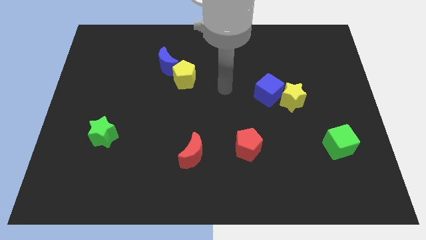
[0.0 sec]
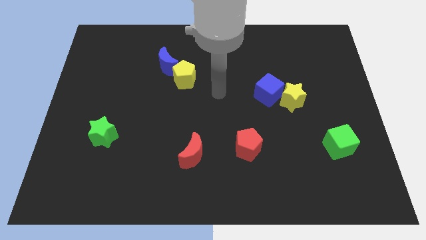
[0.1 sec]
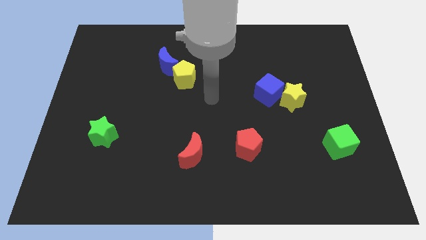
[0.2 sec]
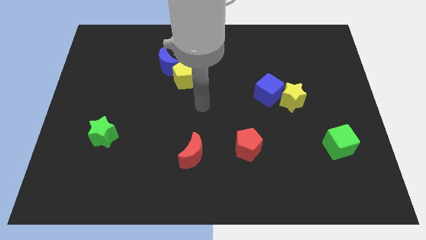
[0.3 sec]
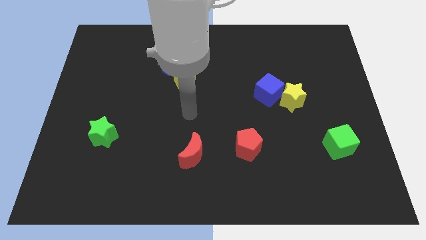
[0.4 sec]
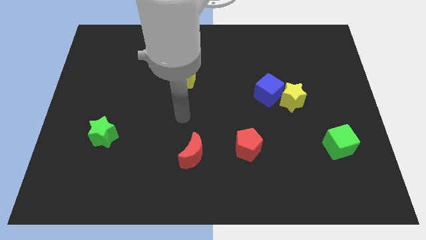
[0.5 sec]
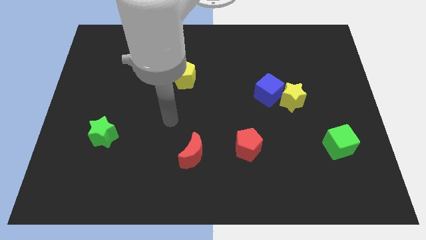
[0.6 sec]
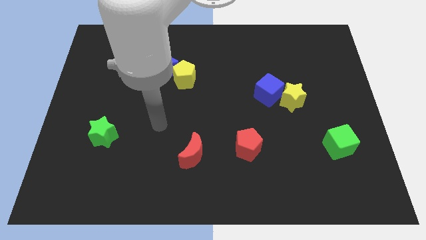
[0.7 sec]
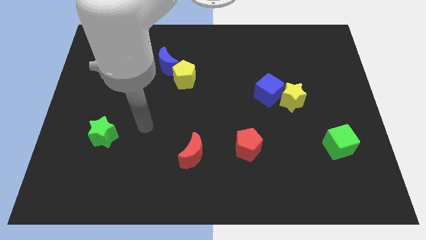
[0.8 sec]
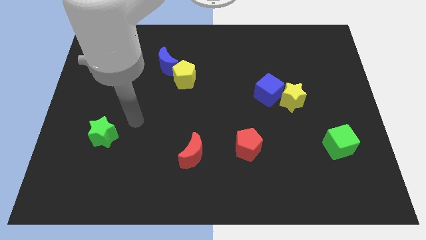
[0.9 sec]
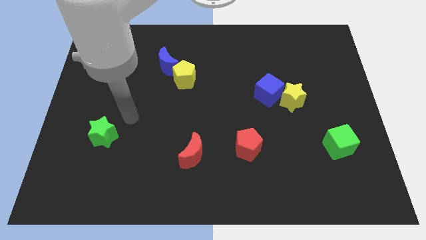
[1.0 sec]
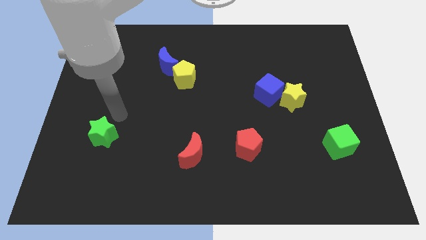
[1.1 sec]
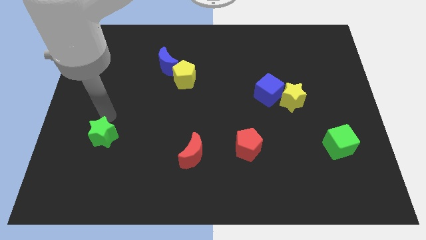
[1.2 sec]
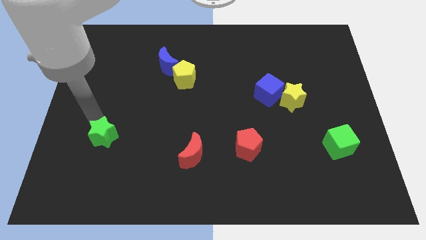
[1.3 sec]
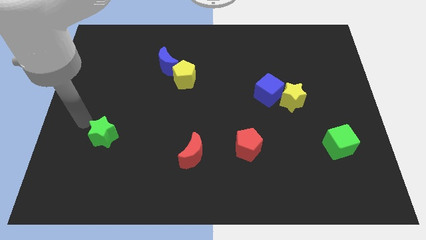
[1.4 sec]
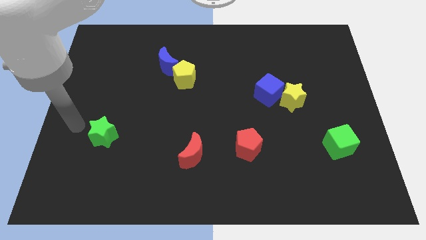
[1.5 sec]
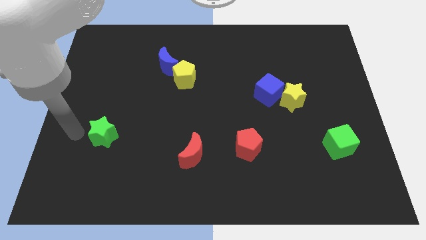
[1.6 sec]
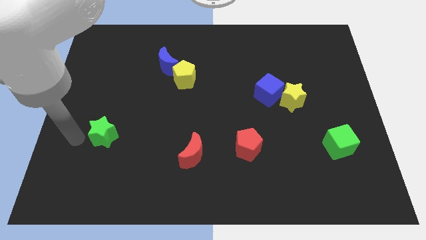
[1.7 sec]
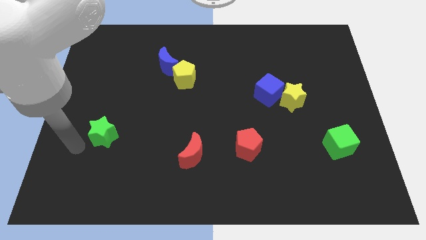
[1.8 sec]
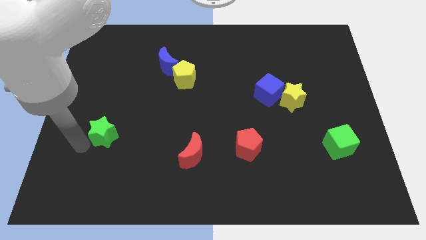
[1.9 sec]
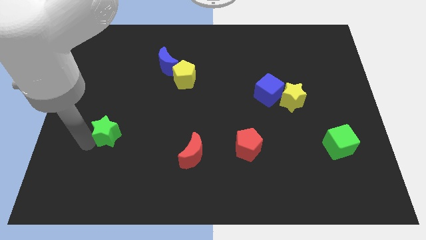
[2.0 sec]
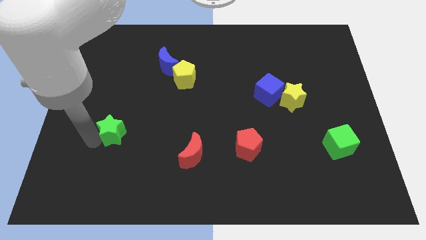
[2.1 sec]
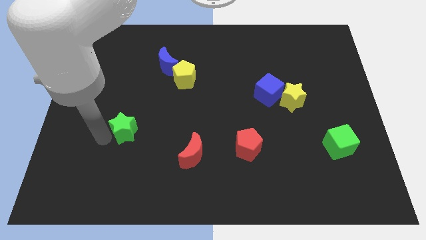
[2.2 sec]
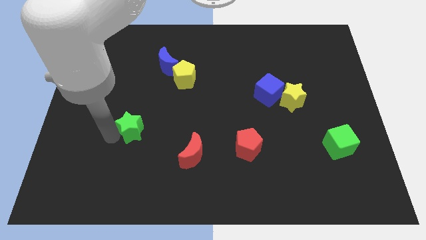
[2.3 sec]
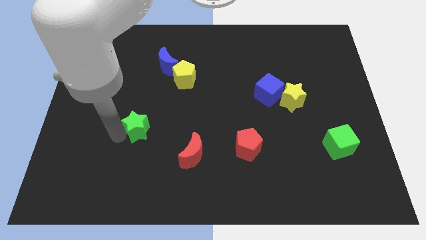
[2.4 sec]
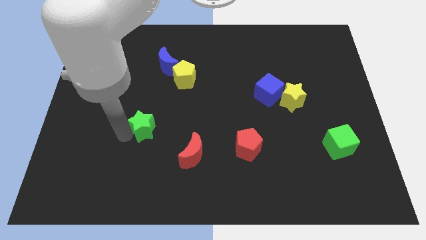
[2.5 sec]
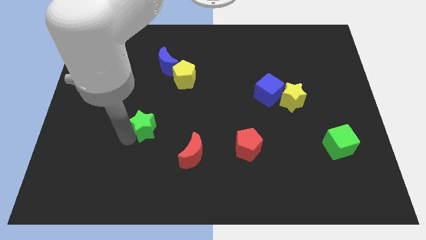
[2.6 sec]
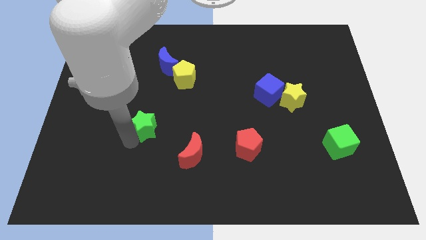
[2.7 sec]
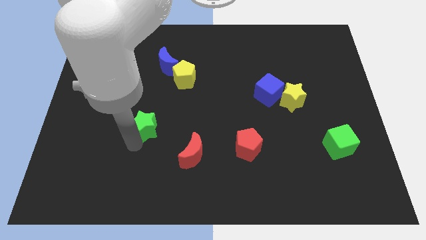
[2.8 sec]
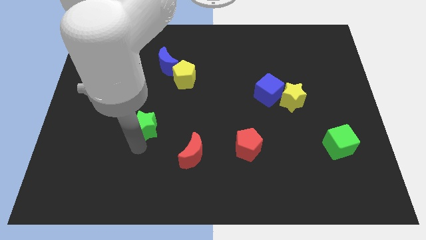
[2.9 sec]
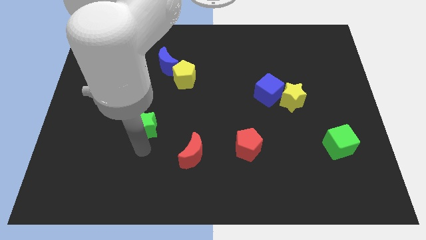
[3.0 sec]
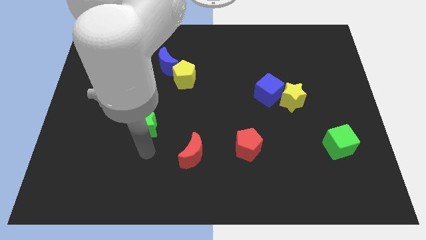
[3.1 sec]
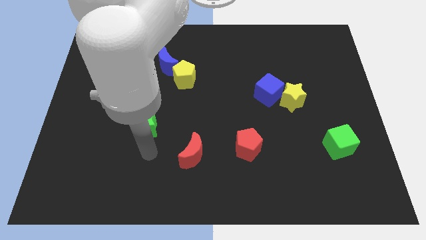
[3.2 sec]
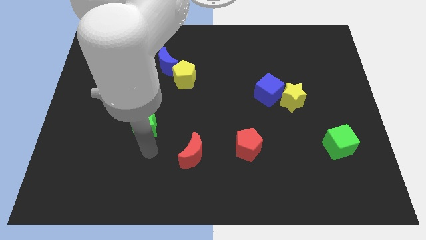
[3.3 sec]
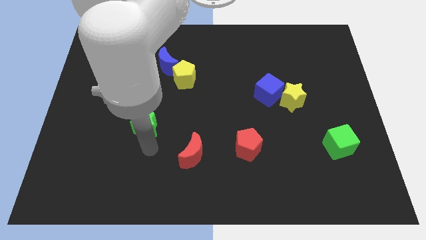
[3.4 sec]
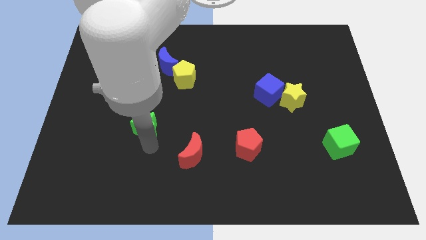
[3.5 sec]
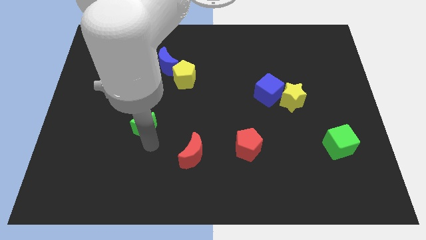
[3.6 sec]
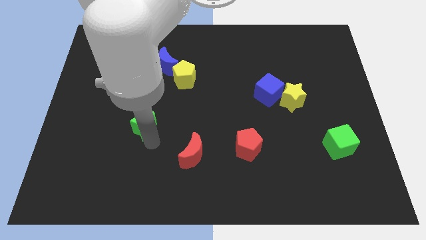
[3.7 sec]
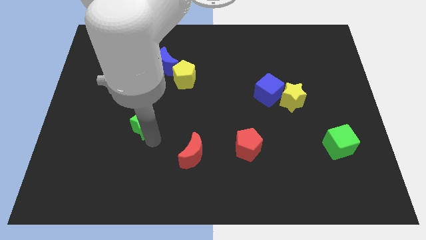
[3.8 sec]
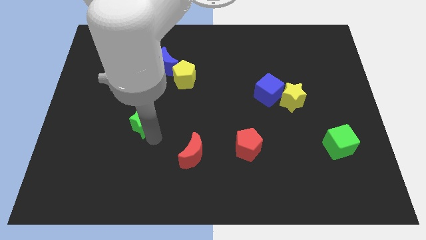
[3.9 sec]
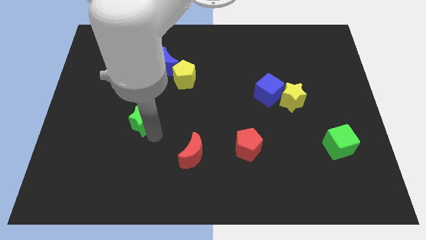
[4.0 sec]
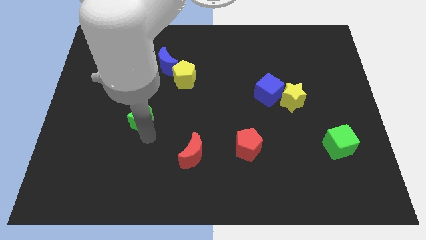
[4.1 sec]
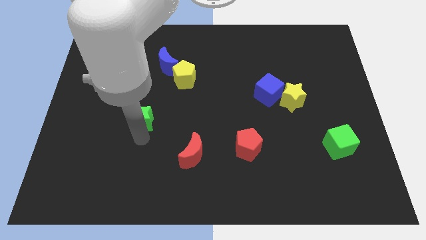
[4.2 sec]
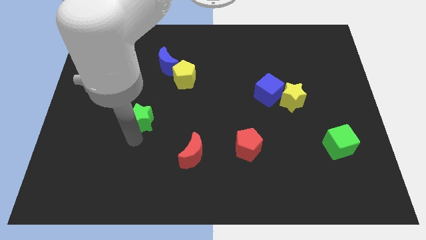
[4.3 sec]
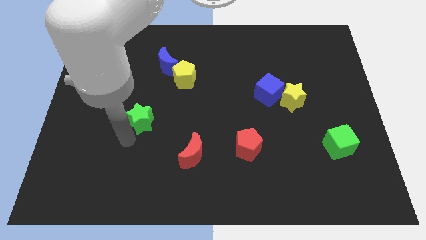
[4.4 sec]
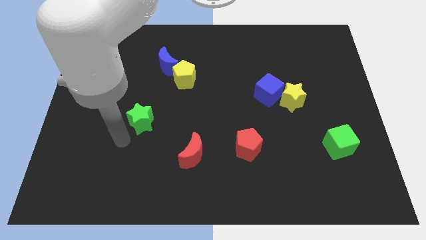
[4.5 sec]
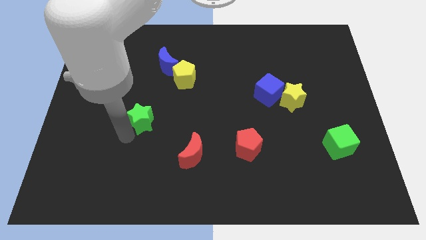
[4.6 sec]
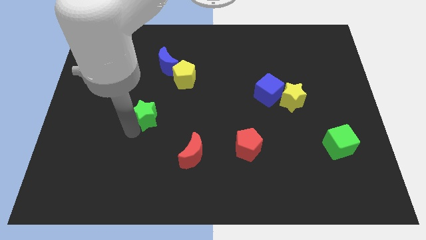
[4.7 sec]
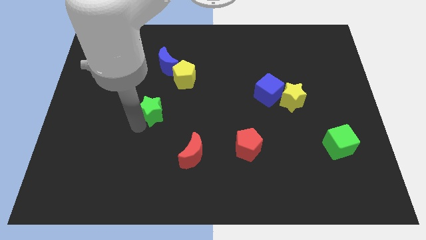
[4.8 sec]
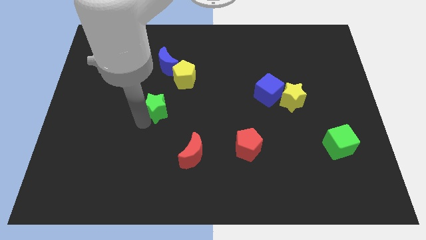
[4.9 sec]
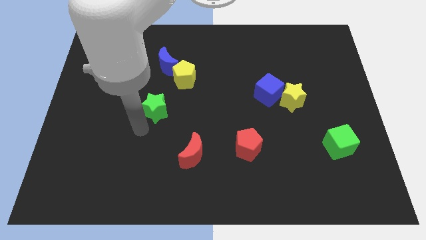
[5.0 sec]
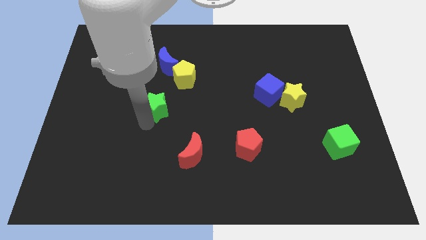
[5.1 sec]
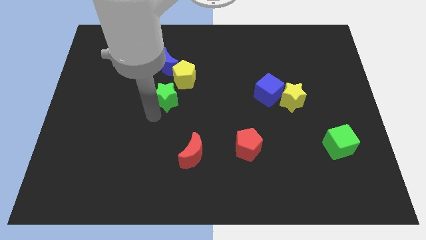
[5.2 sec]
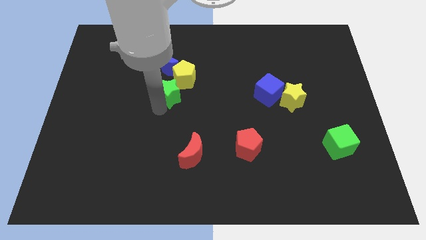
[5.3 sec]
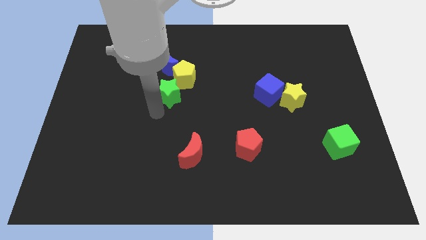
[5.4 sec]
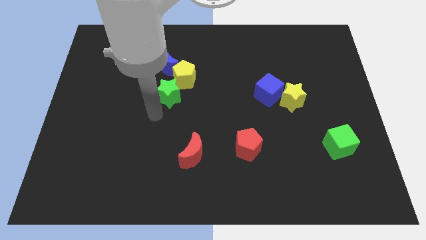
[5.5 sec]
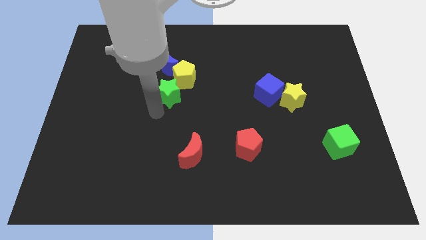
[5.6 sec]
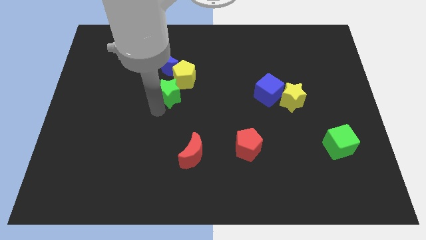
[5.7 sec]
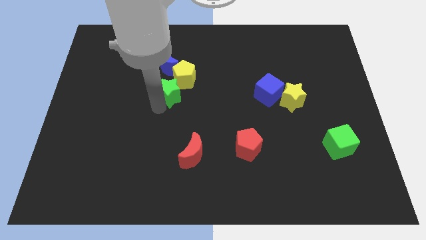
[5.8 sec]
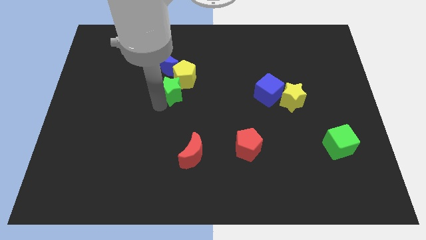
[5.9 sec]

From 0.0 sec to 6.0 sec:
push the green star towards the yellow pentagon

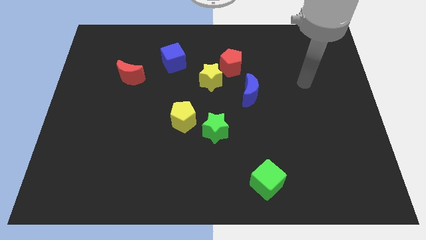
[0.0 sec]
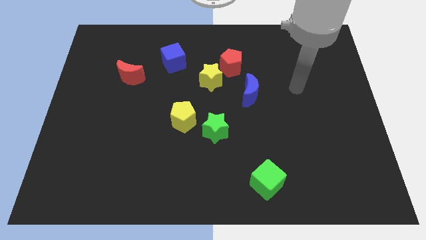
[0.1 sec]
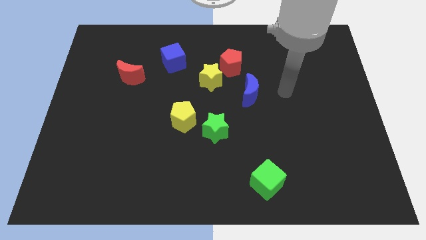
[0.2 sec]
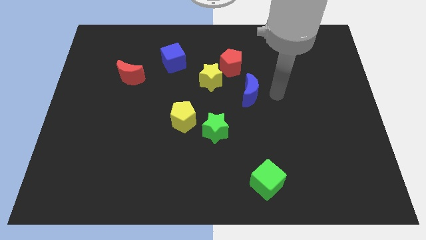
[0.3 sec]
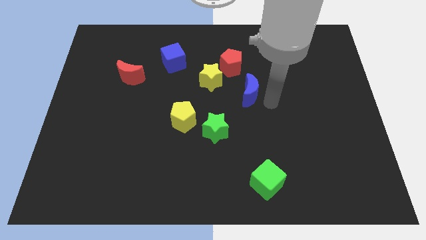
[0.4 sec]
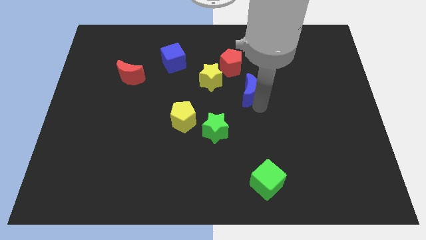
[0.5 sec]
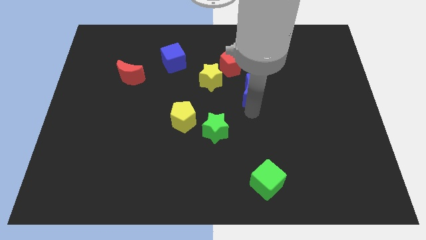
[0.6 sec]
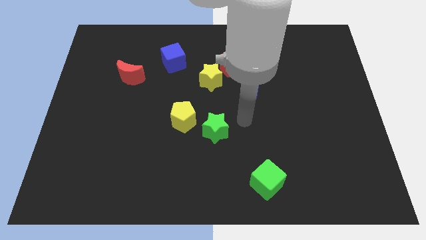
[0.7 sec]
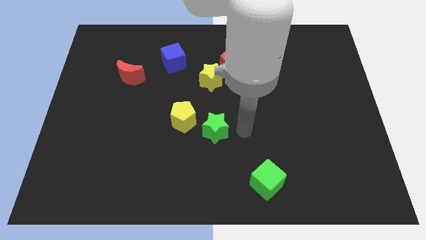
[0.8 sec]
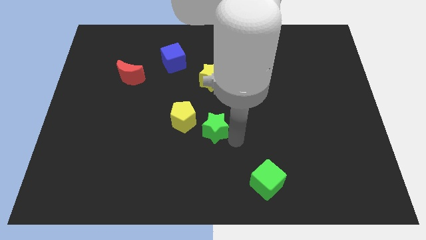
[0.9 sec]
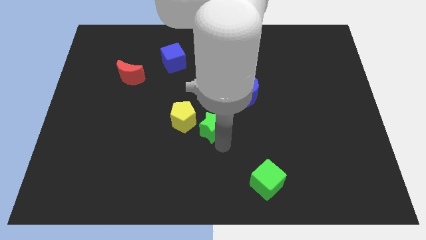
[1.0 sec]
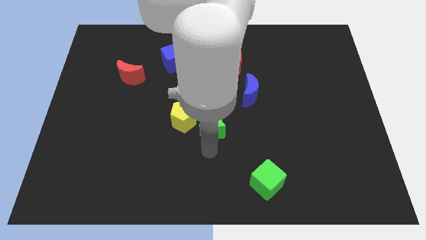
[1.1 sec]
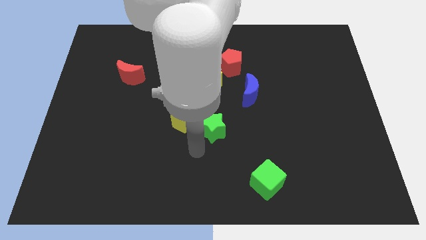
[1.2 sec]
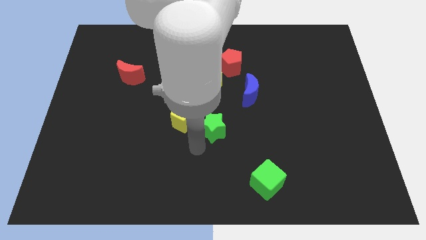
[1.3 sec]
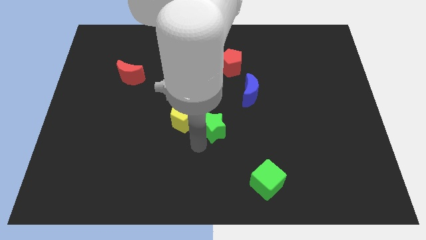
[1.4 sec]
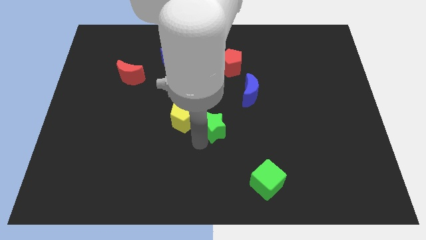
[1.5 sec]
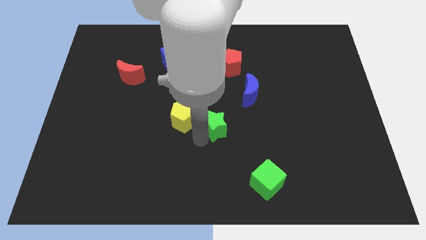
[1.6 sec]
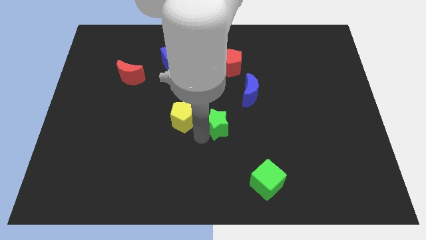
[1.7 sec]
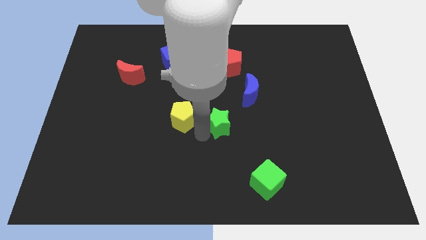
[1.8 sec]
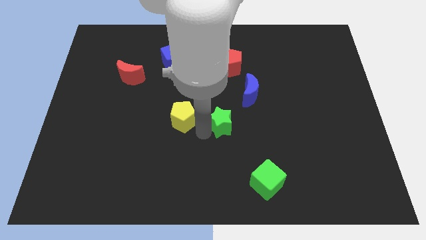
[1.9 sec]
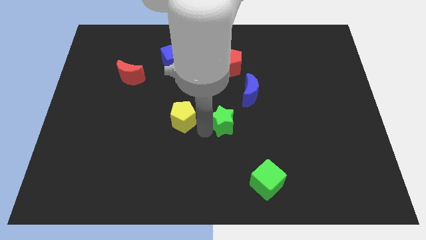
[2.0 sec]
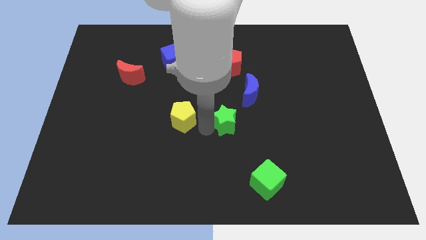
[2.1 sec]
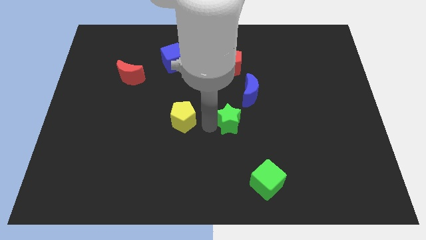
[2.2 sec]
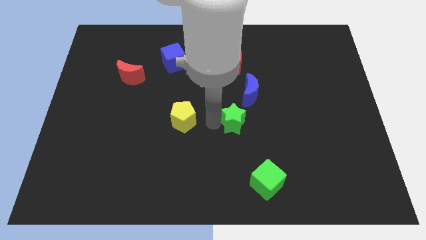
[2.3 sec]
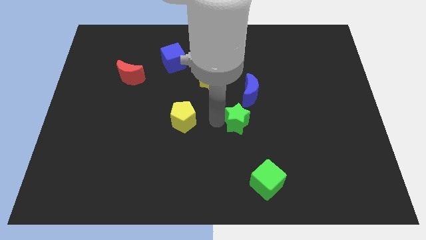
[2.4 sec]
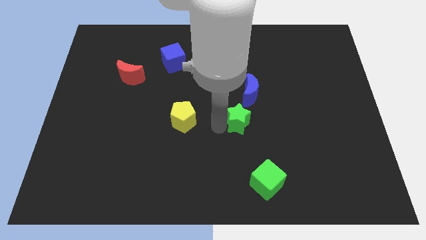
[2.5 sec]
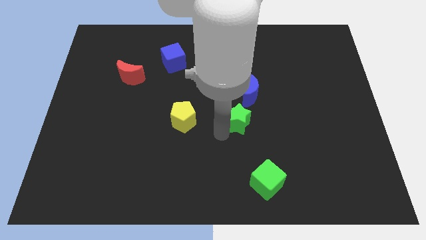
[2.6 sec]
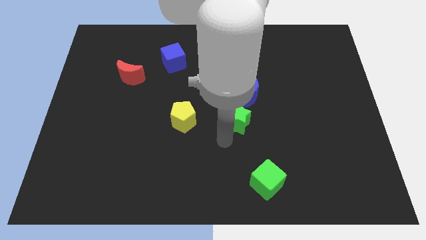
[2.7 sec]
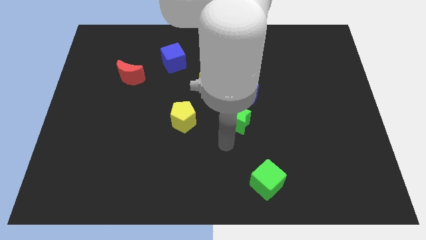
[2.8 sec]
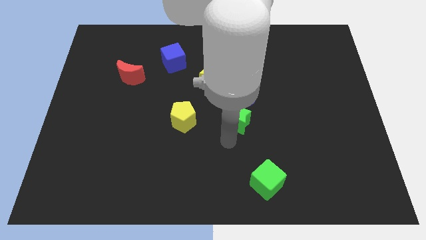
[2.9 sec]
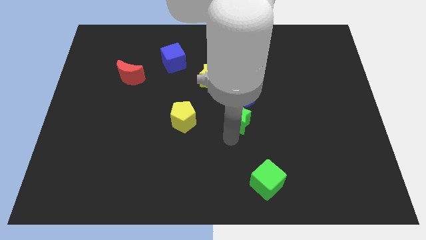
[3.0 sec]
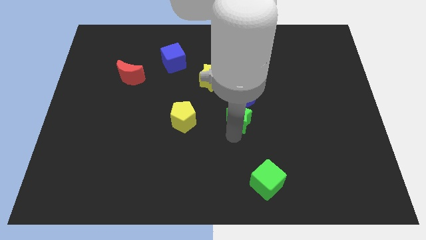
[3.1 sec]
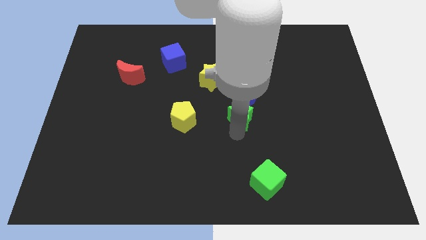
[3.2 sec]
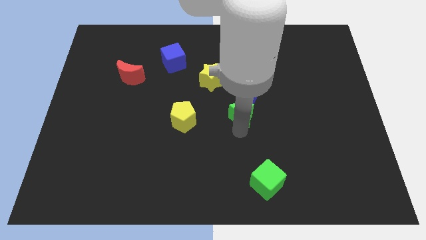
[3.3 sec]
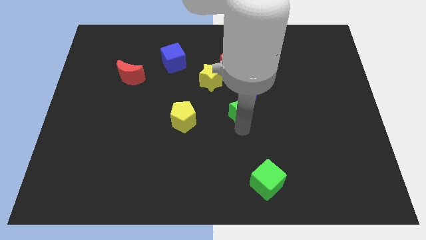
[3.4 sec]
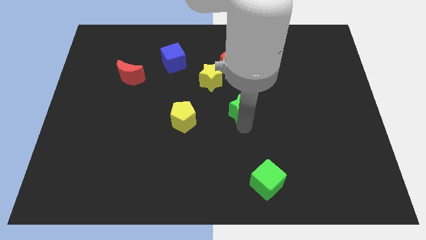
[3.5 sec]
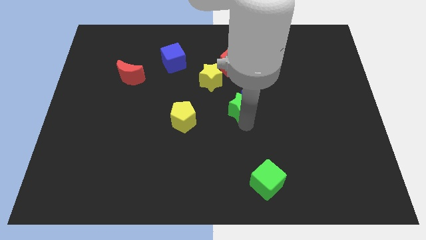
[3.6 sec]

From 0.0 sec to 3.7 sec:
slide the green star close to the blue moon
